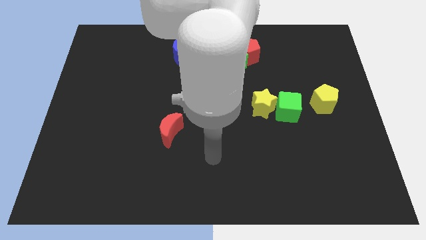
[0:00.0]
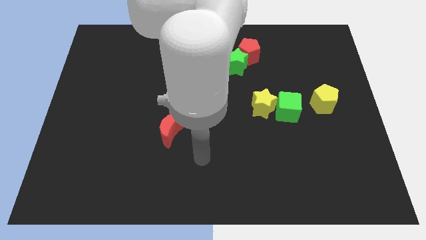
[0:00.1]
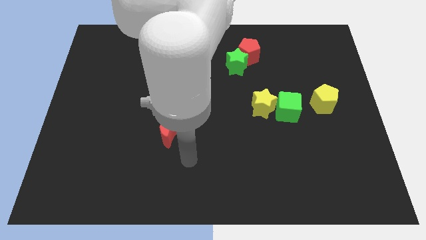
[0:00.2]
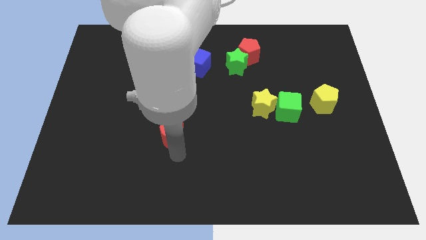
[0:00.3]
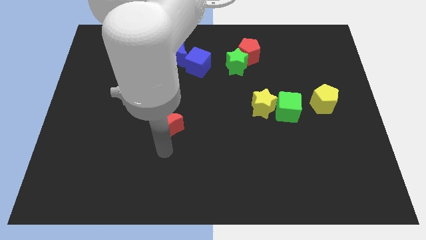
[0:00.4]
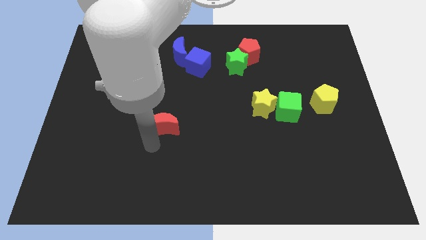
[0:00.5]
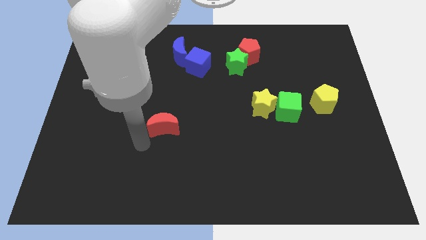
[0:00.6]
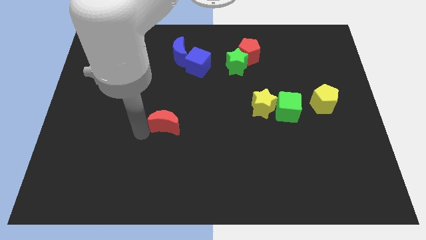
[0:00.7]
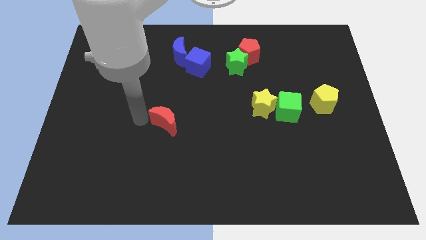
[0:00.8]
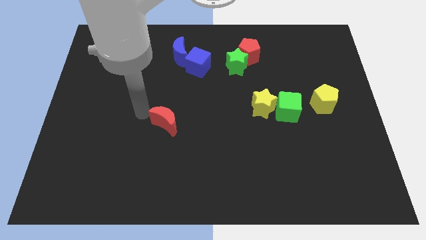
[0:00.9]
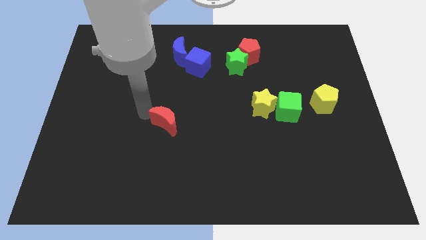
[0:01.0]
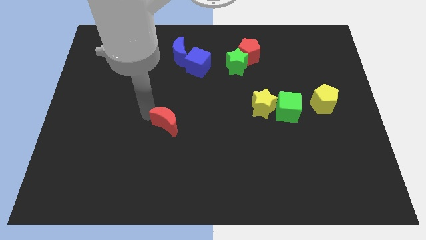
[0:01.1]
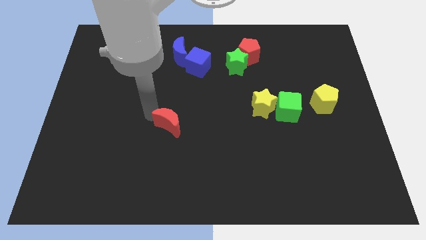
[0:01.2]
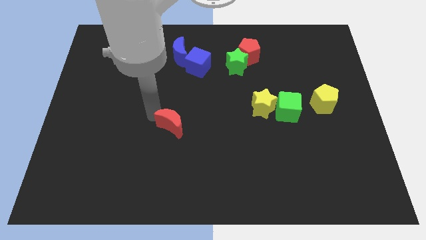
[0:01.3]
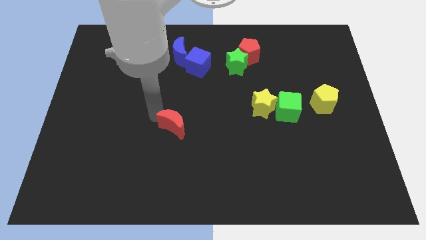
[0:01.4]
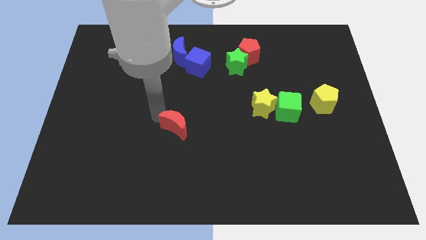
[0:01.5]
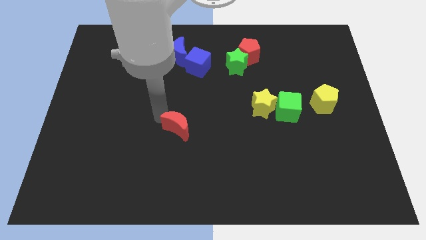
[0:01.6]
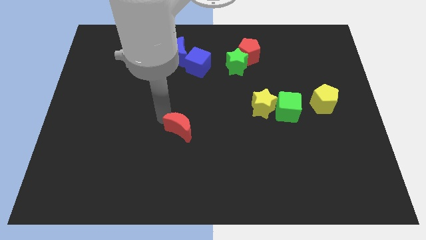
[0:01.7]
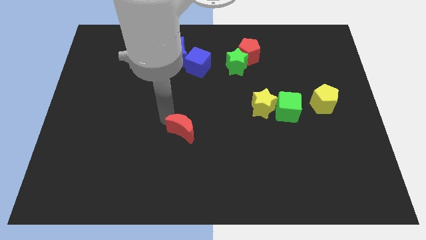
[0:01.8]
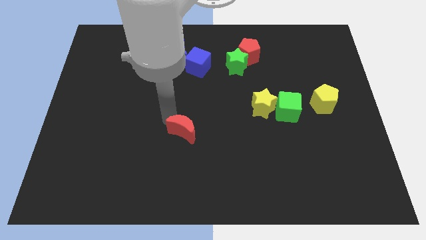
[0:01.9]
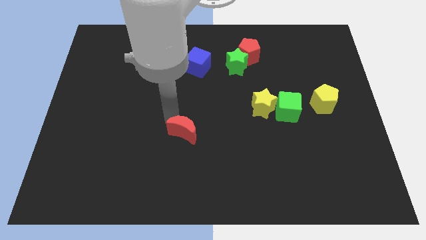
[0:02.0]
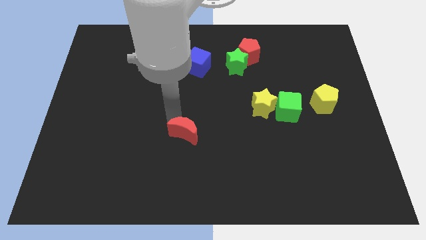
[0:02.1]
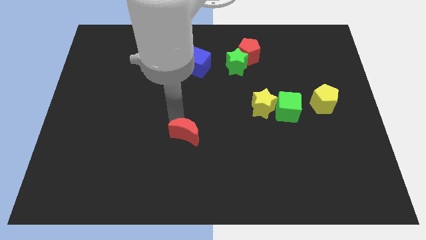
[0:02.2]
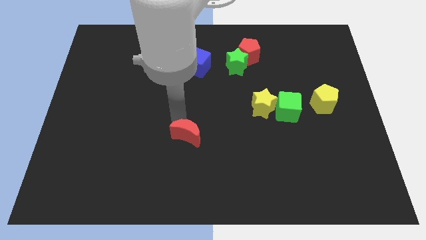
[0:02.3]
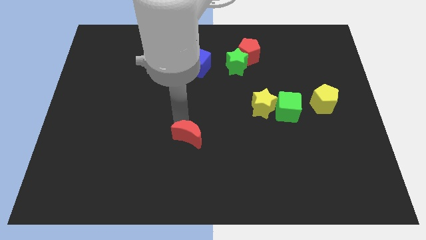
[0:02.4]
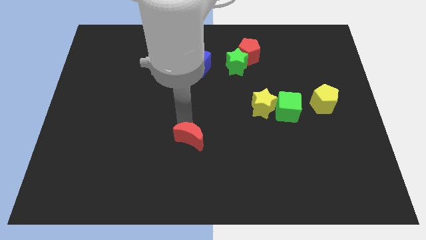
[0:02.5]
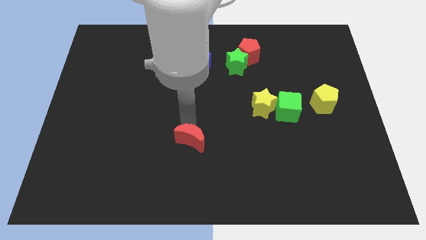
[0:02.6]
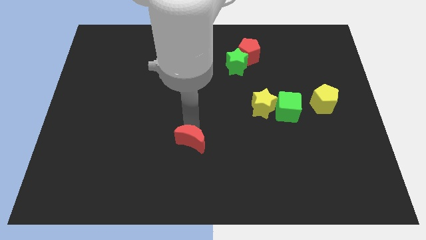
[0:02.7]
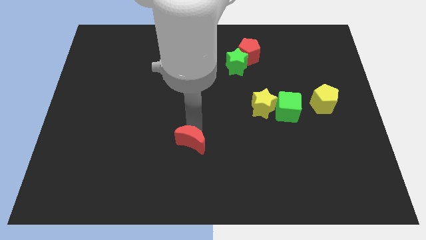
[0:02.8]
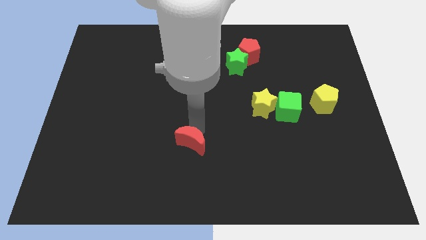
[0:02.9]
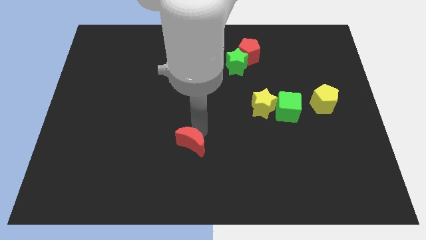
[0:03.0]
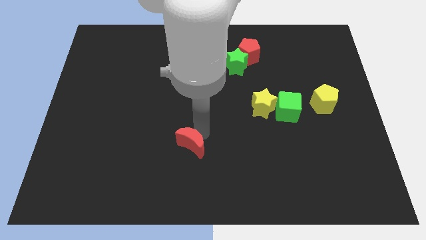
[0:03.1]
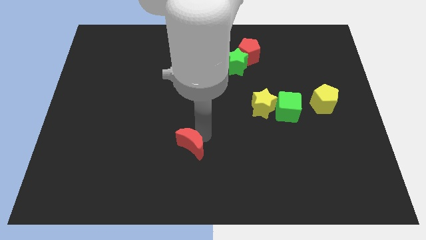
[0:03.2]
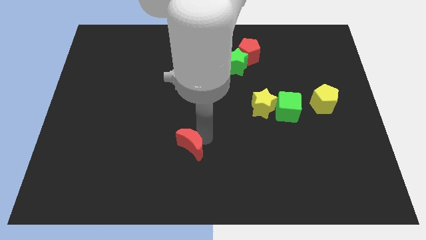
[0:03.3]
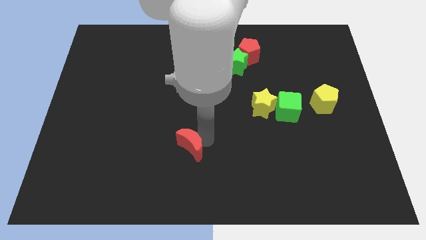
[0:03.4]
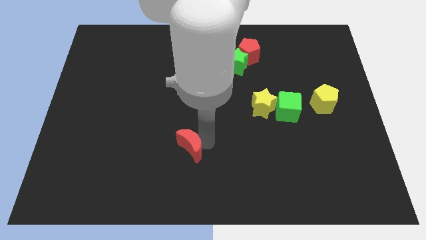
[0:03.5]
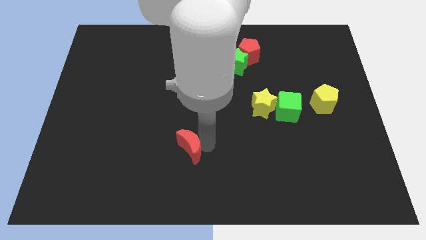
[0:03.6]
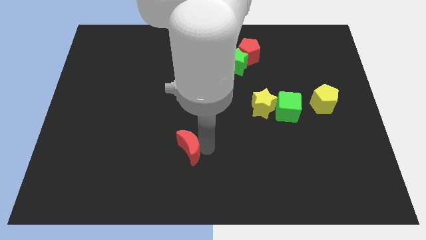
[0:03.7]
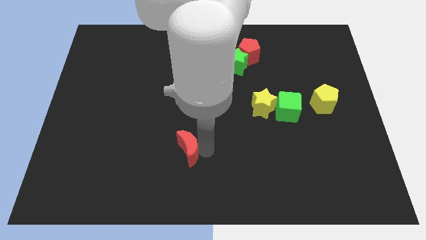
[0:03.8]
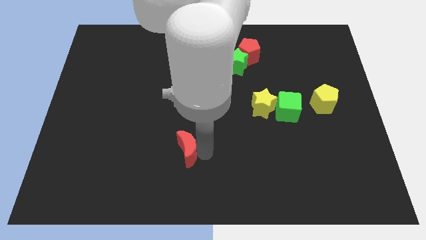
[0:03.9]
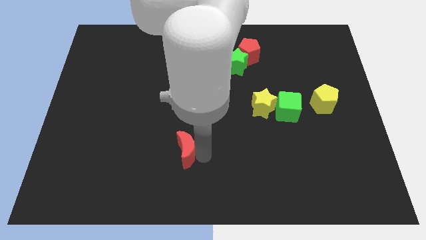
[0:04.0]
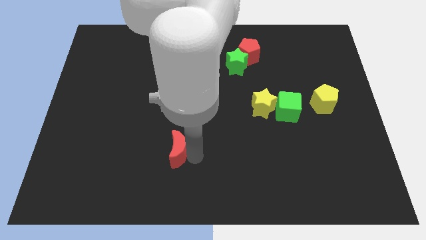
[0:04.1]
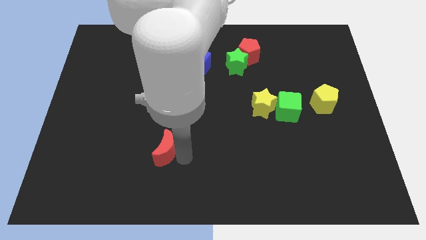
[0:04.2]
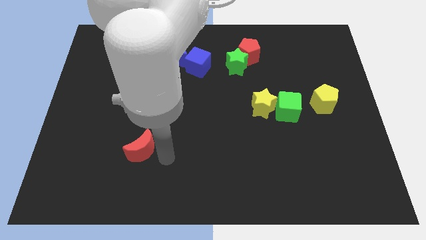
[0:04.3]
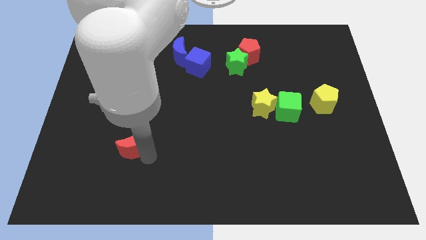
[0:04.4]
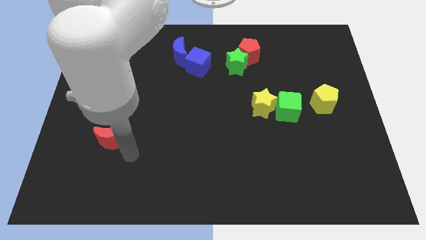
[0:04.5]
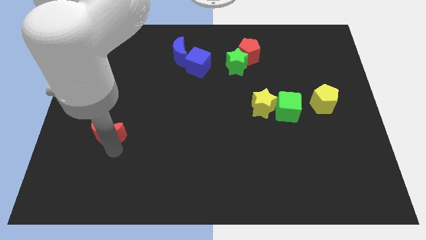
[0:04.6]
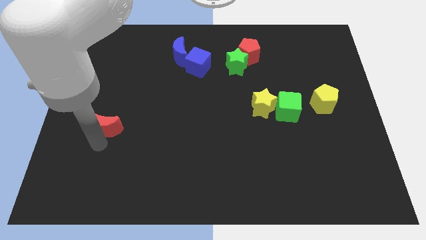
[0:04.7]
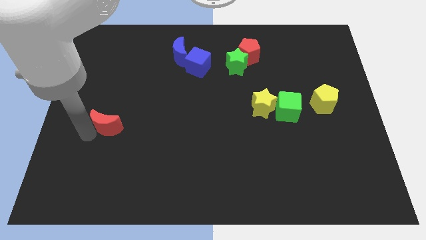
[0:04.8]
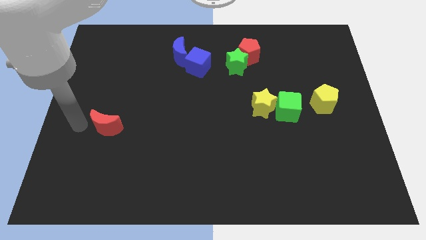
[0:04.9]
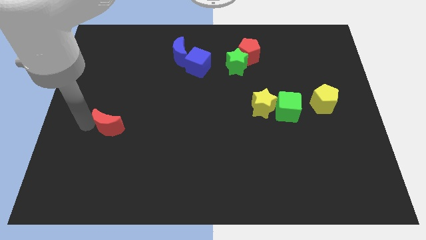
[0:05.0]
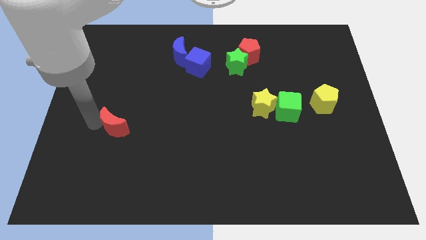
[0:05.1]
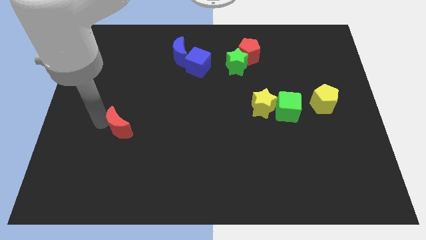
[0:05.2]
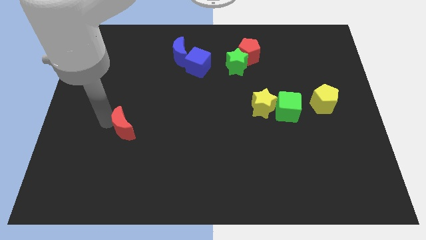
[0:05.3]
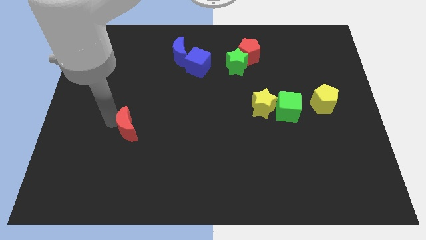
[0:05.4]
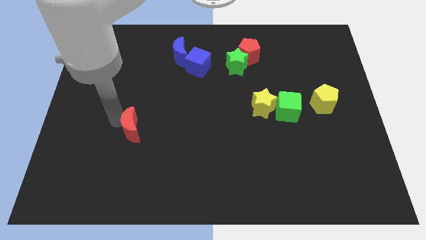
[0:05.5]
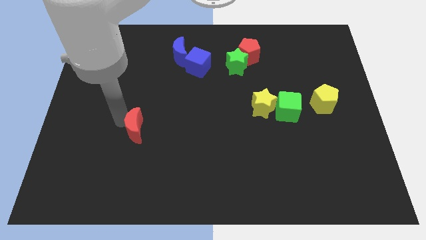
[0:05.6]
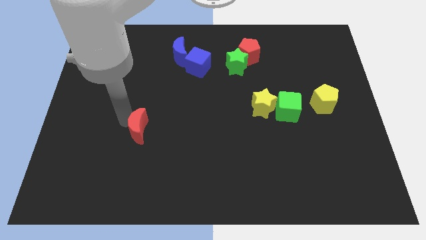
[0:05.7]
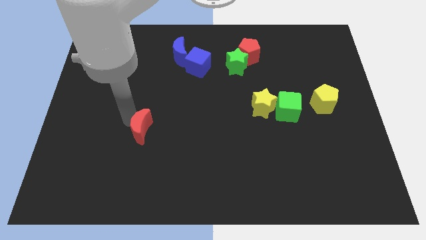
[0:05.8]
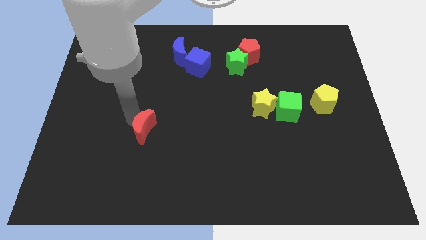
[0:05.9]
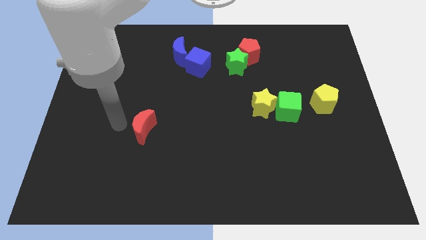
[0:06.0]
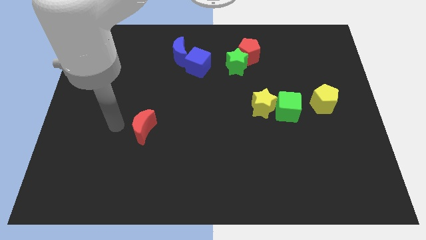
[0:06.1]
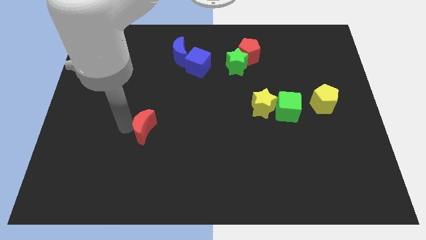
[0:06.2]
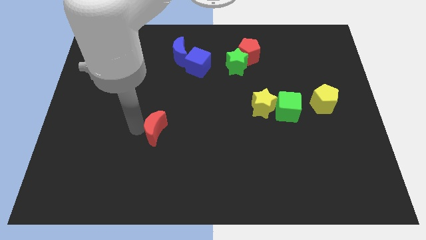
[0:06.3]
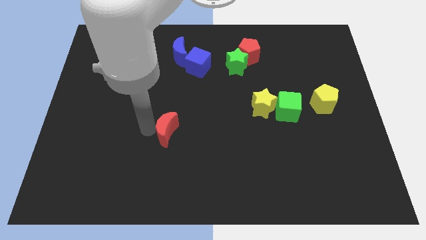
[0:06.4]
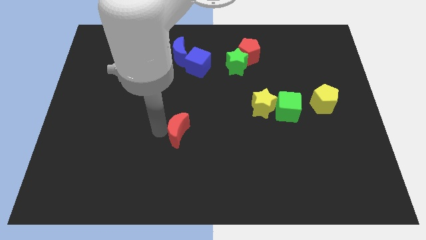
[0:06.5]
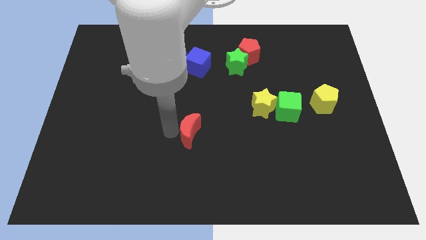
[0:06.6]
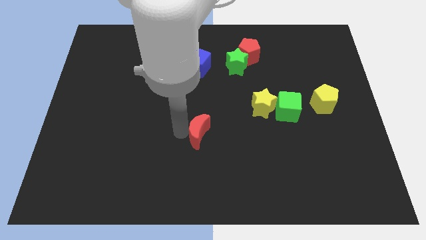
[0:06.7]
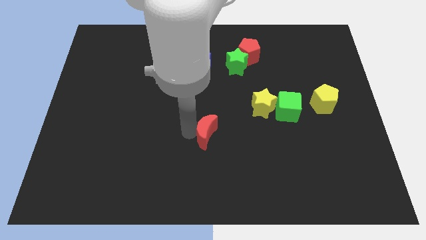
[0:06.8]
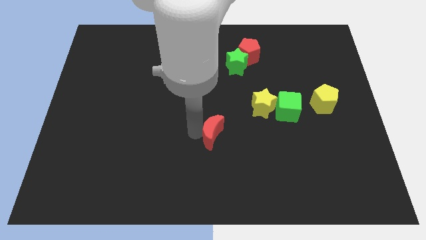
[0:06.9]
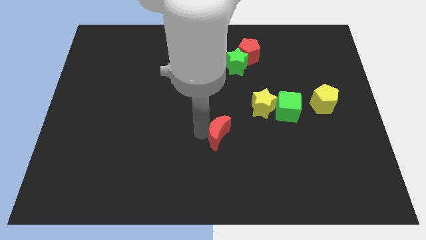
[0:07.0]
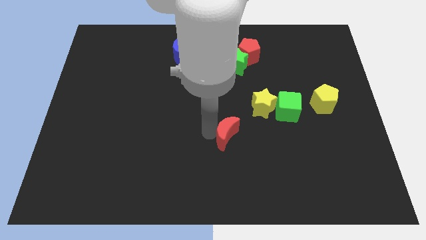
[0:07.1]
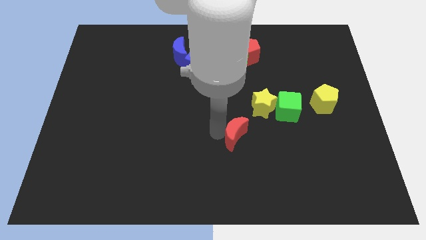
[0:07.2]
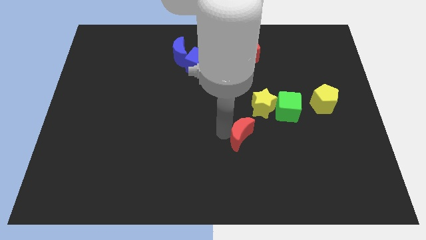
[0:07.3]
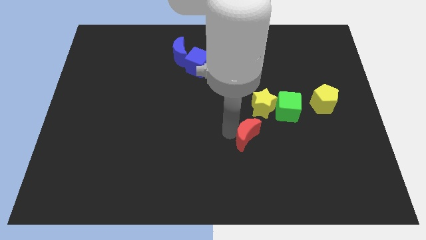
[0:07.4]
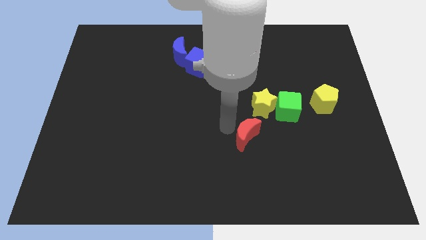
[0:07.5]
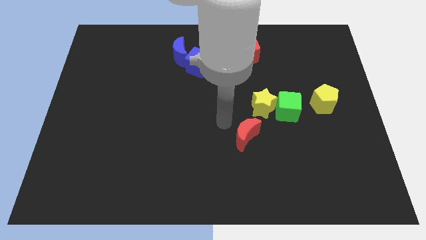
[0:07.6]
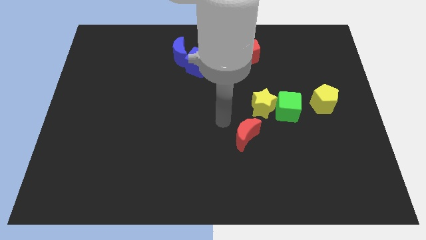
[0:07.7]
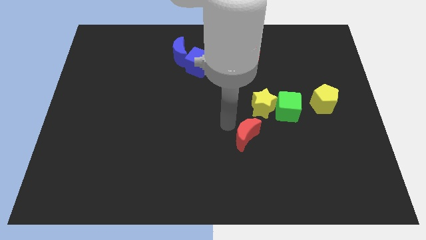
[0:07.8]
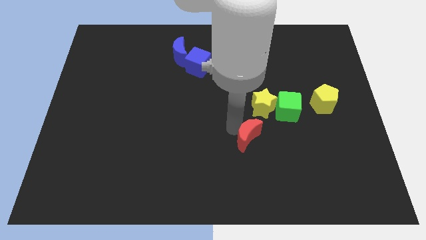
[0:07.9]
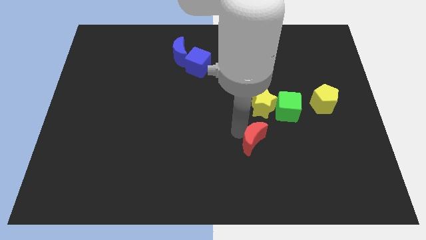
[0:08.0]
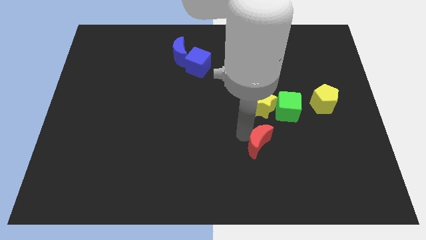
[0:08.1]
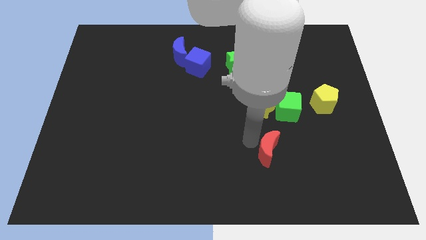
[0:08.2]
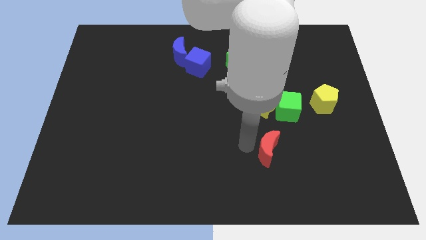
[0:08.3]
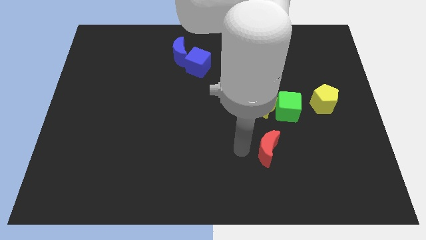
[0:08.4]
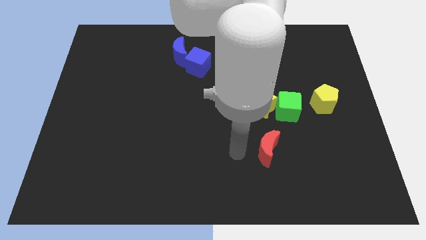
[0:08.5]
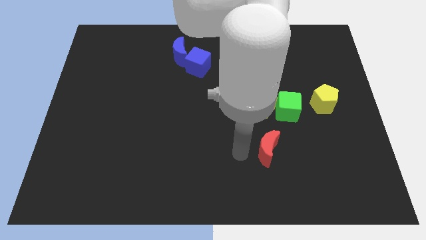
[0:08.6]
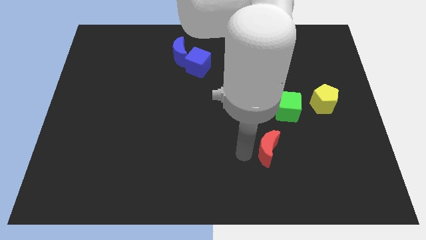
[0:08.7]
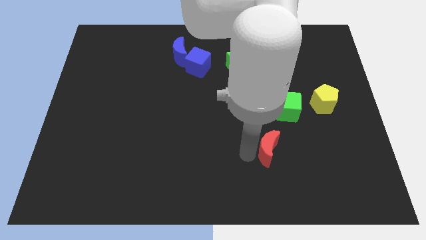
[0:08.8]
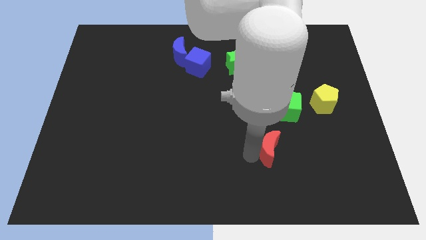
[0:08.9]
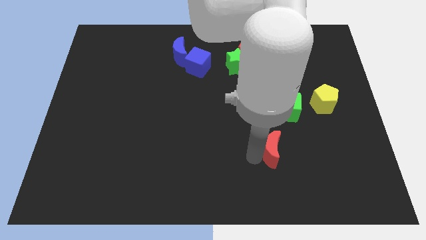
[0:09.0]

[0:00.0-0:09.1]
push the red moon to the bottom of the green cube
